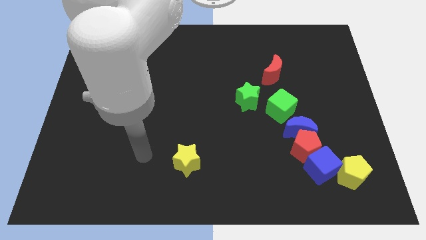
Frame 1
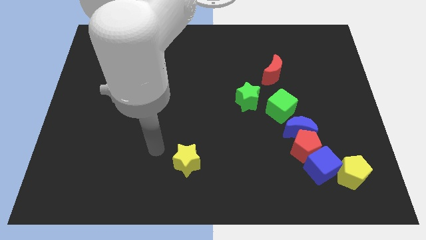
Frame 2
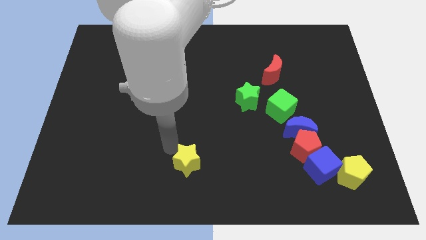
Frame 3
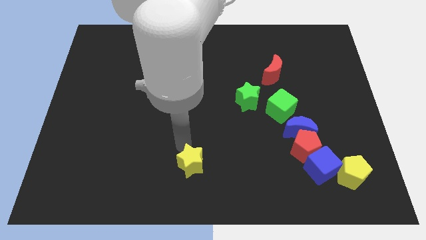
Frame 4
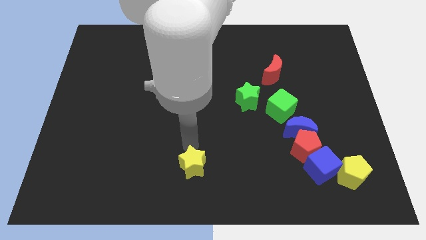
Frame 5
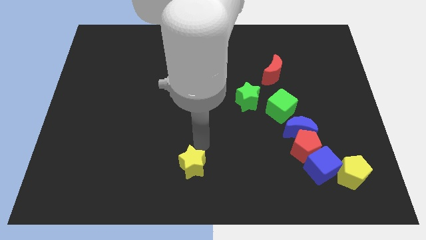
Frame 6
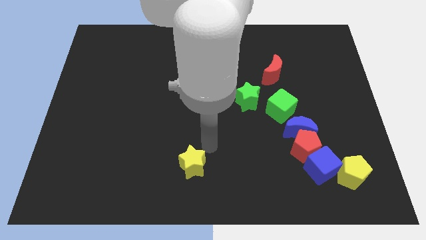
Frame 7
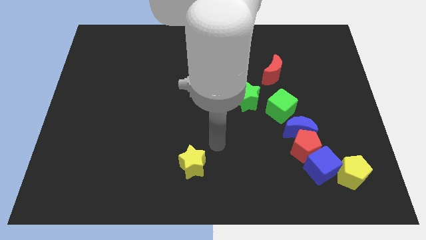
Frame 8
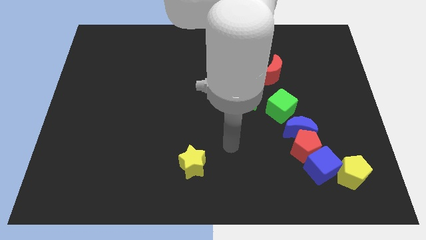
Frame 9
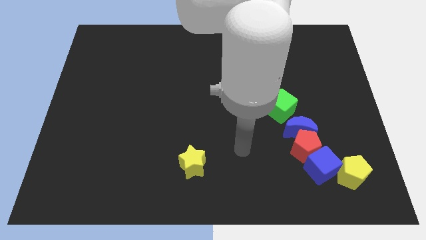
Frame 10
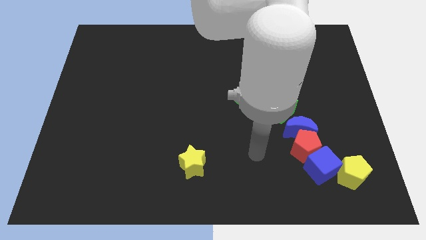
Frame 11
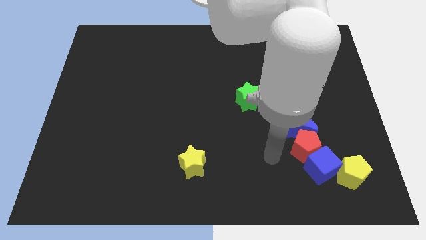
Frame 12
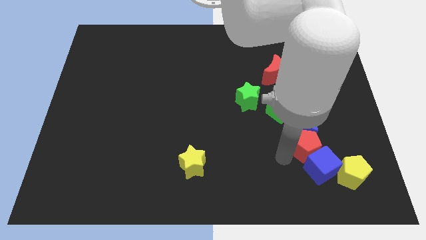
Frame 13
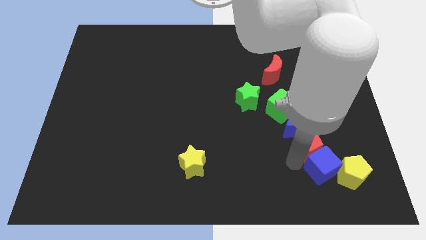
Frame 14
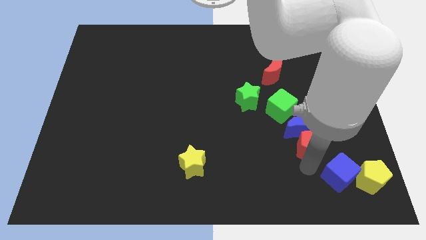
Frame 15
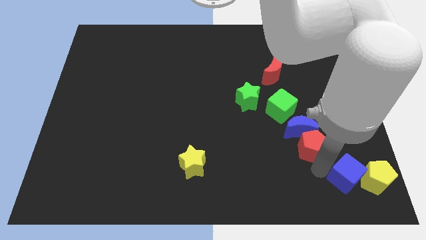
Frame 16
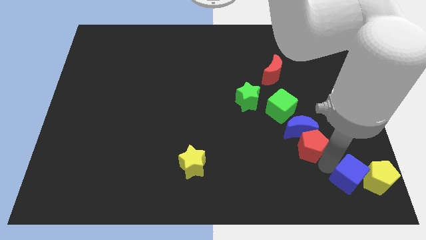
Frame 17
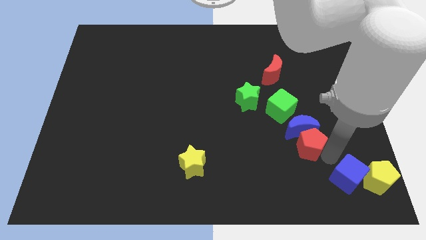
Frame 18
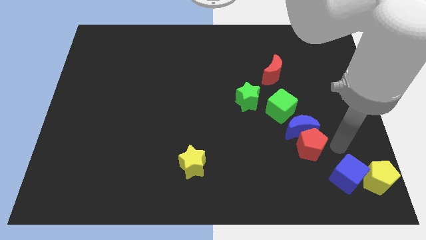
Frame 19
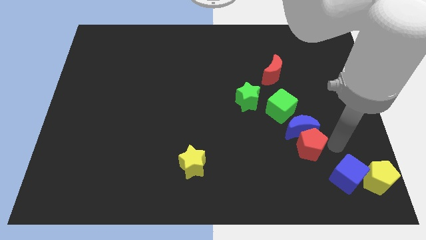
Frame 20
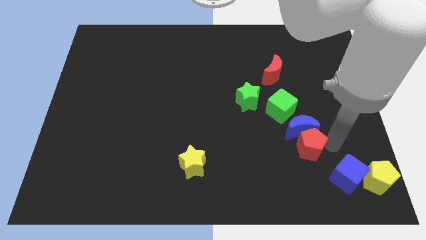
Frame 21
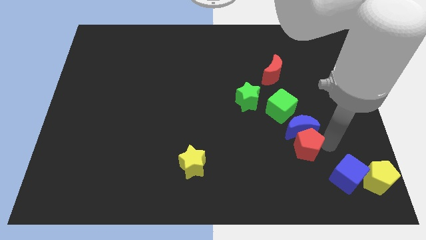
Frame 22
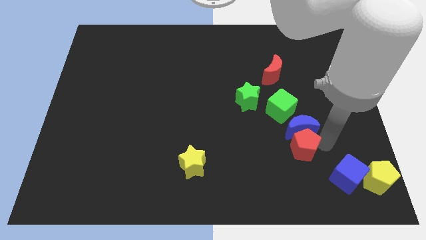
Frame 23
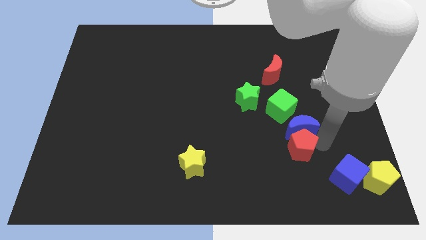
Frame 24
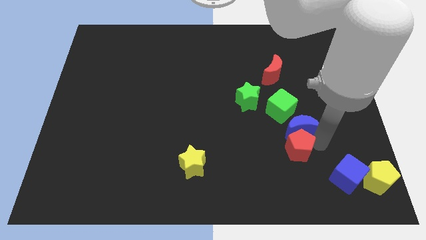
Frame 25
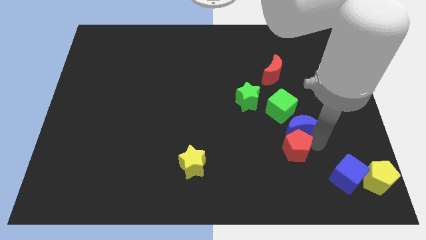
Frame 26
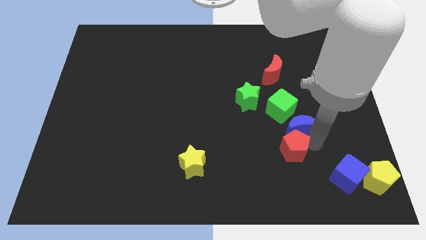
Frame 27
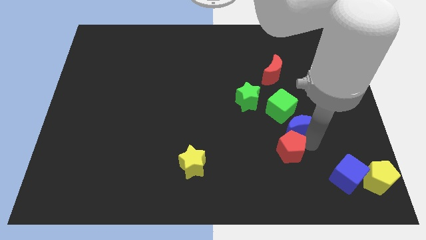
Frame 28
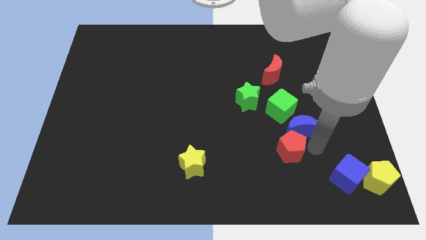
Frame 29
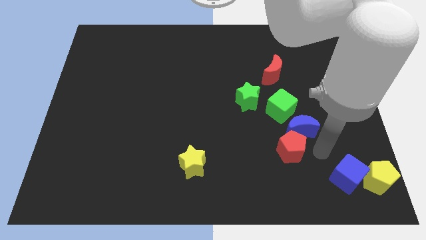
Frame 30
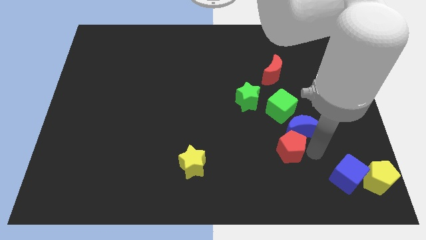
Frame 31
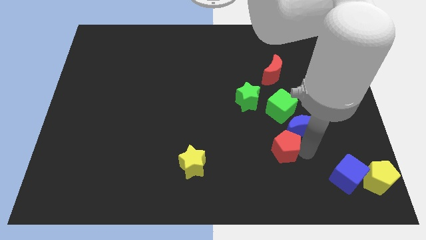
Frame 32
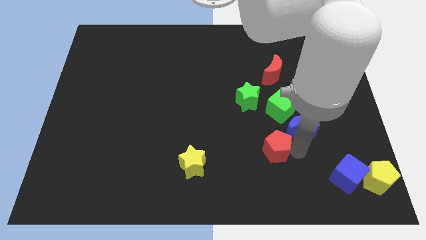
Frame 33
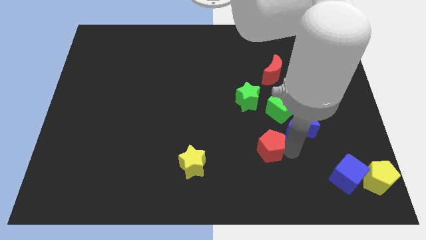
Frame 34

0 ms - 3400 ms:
move the red pentagon away from the blue moon and blue cube

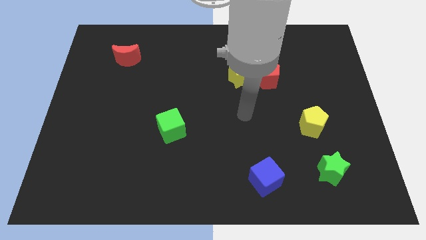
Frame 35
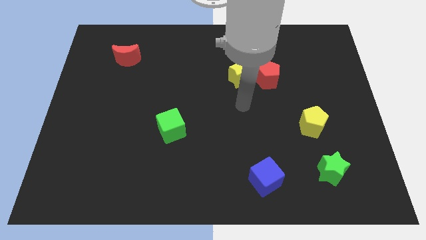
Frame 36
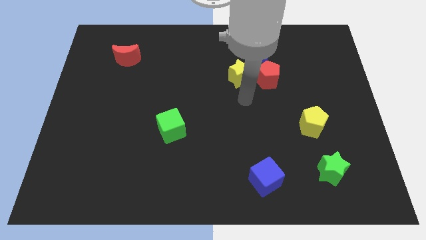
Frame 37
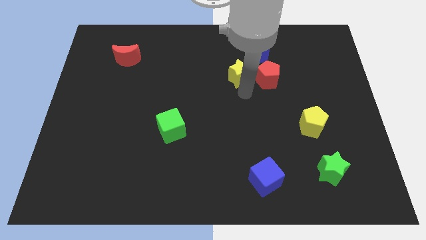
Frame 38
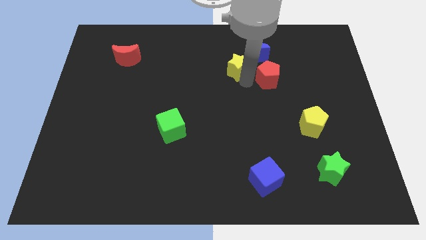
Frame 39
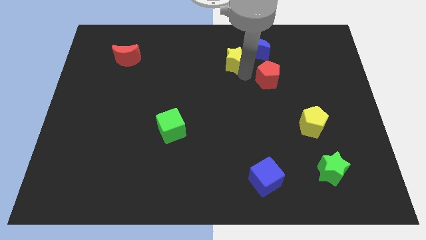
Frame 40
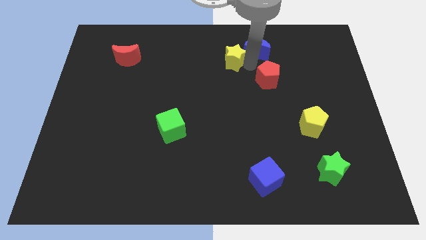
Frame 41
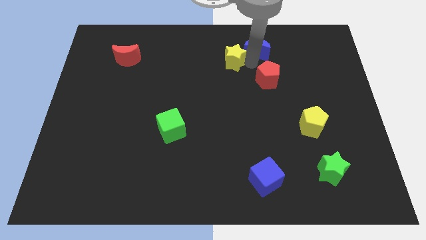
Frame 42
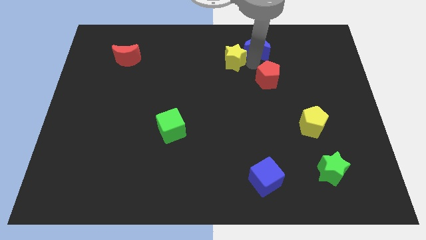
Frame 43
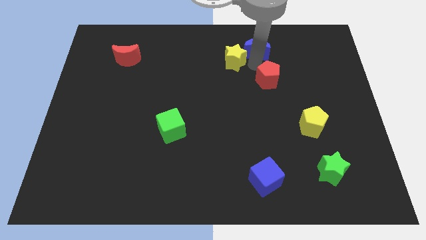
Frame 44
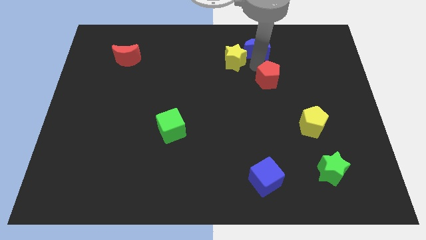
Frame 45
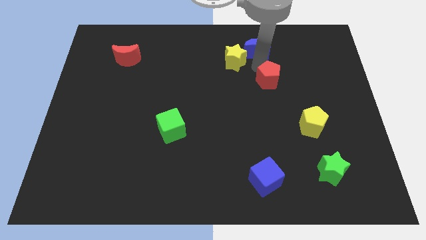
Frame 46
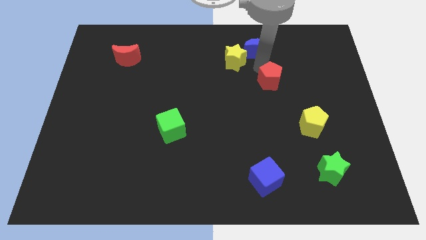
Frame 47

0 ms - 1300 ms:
pull the red pentagon apart from the yellow star and blue moon

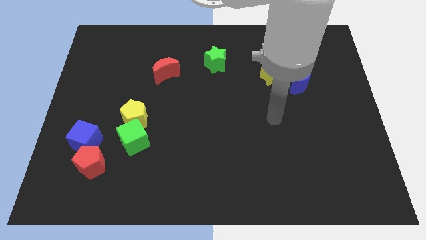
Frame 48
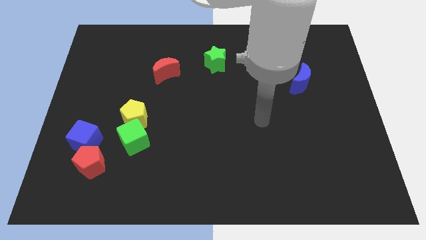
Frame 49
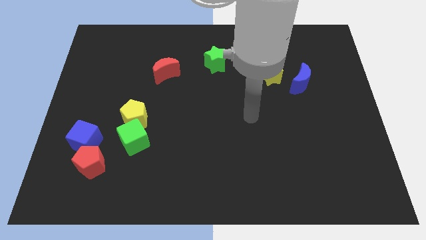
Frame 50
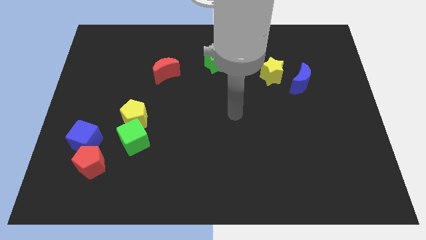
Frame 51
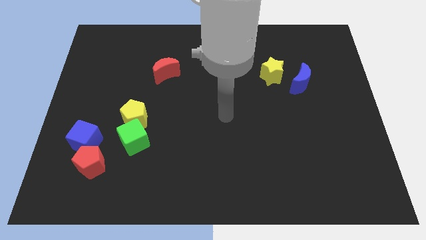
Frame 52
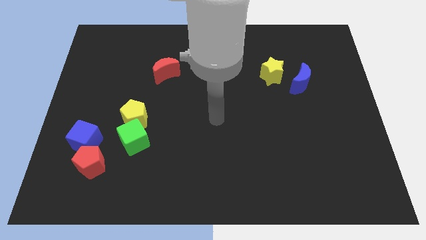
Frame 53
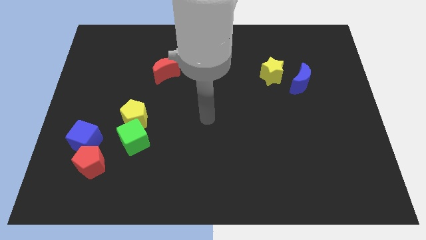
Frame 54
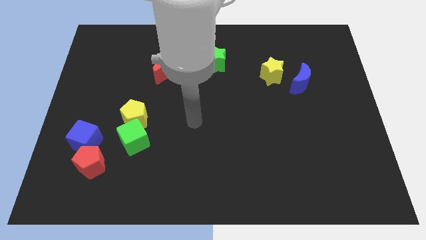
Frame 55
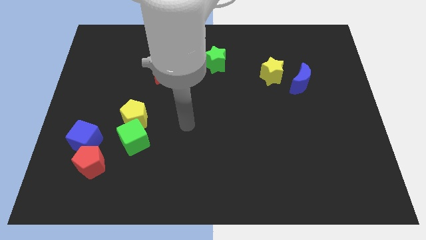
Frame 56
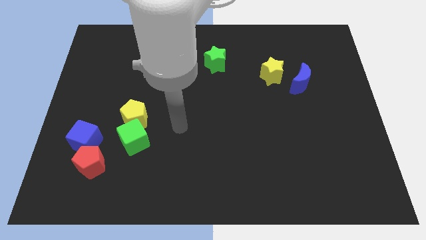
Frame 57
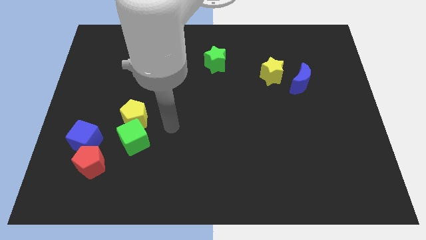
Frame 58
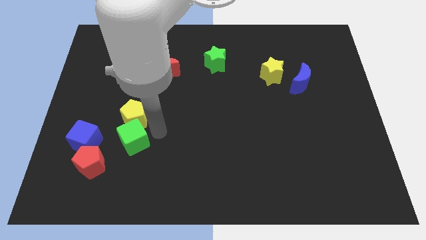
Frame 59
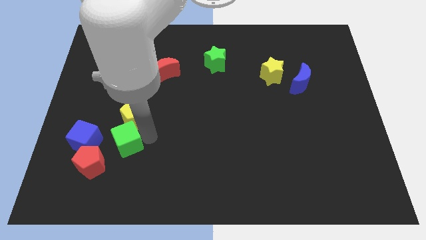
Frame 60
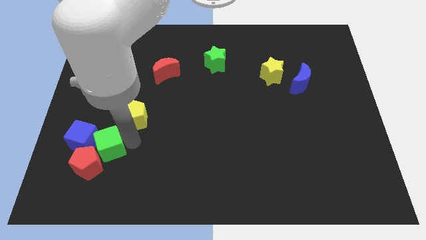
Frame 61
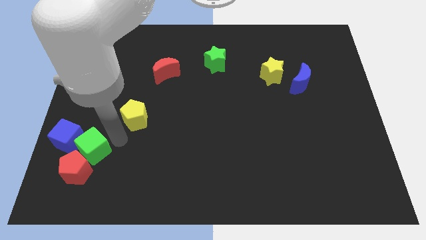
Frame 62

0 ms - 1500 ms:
separate the yellow pentagon from the green cube

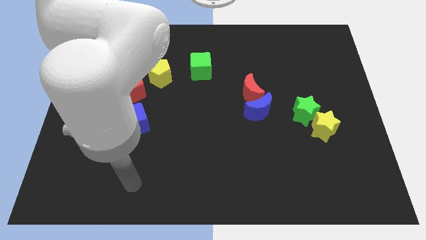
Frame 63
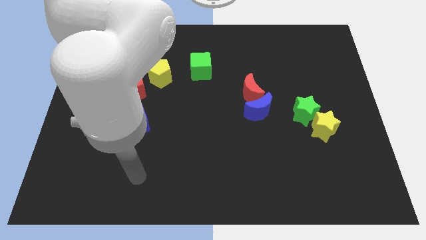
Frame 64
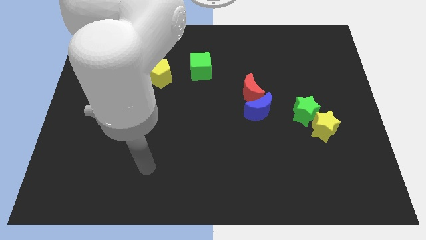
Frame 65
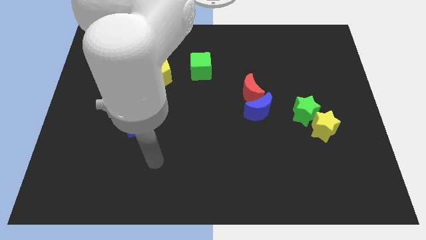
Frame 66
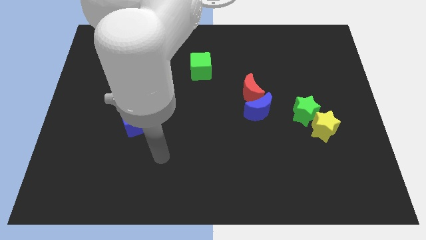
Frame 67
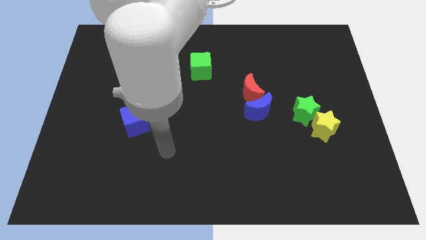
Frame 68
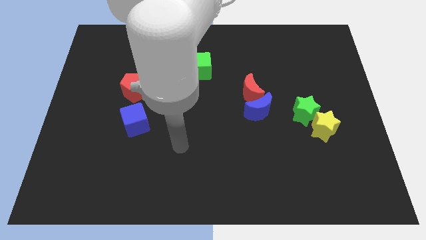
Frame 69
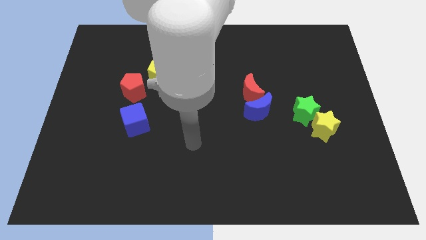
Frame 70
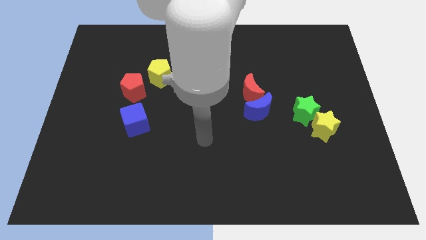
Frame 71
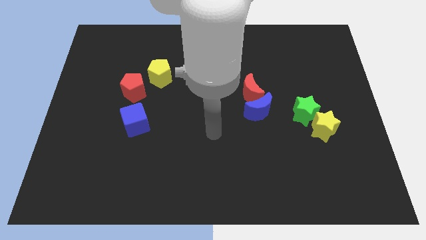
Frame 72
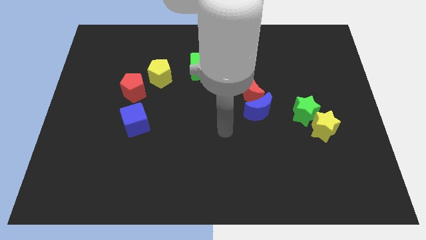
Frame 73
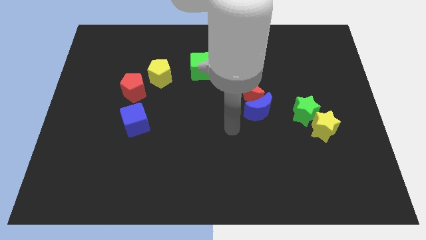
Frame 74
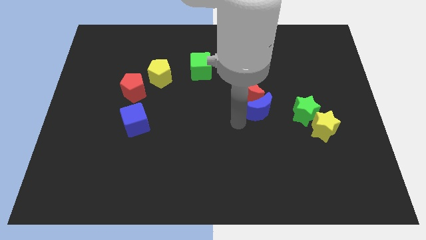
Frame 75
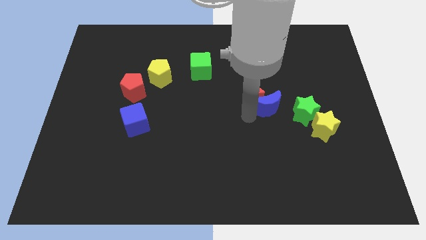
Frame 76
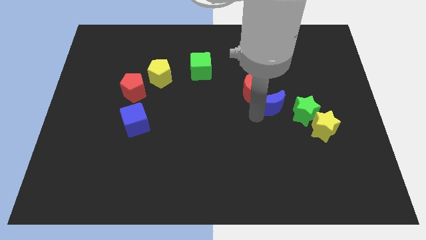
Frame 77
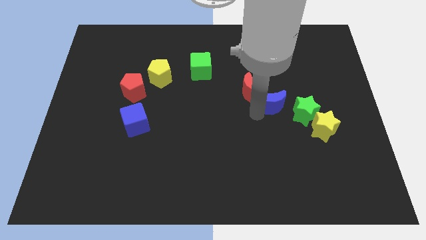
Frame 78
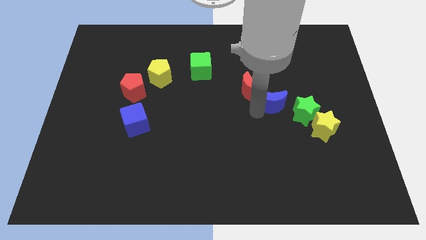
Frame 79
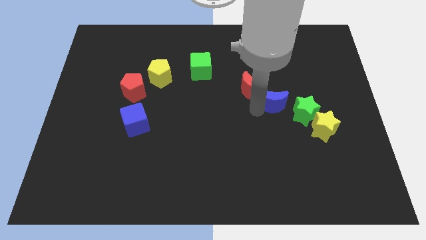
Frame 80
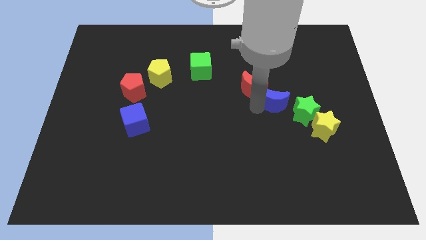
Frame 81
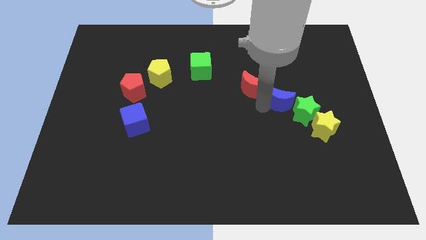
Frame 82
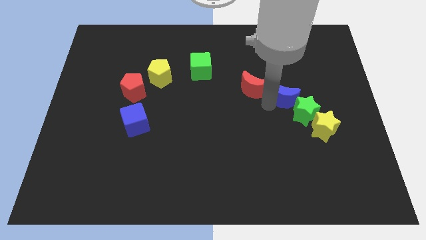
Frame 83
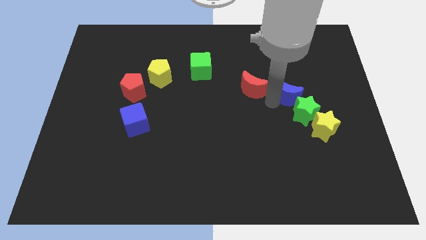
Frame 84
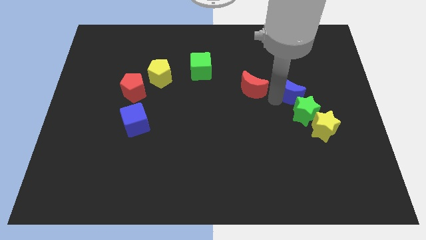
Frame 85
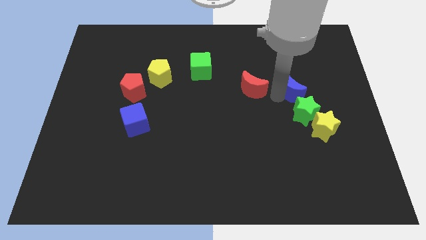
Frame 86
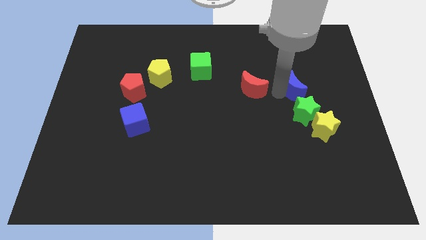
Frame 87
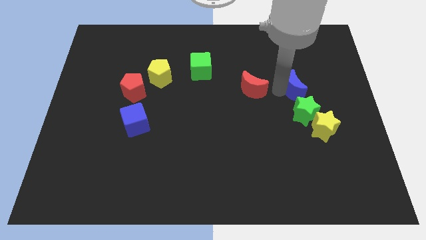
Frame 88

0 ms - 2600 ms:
pull the red moon apart from the blue moon

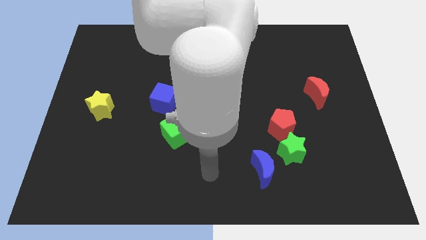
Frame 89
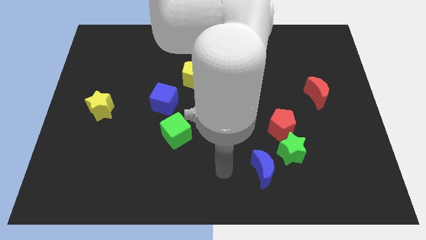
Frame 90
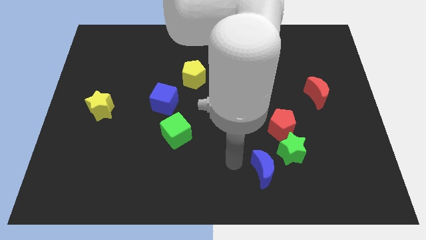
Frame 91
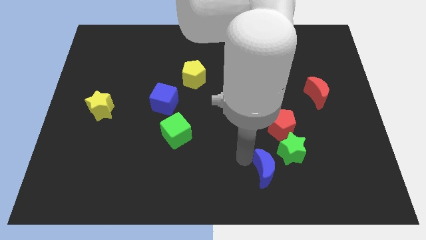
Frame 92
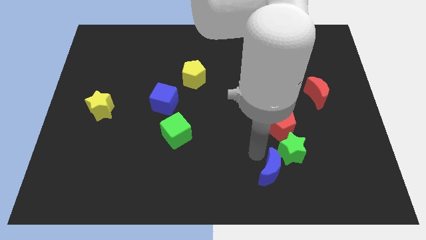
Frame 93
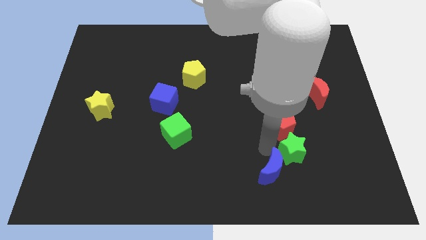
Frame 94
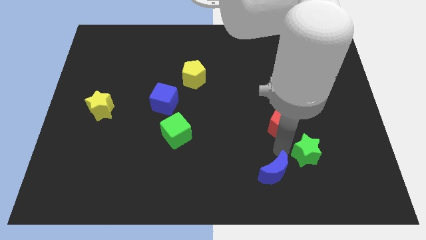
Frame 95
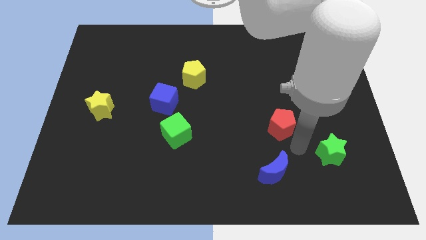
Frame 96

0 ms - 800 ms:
separate the red pentagon from the green star
